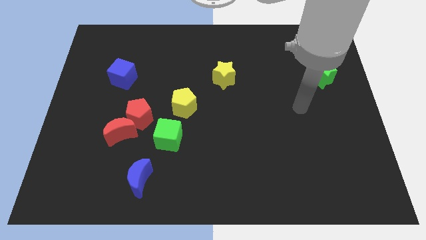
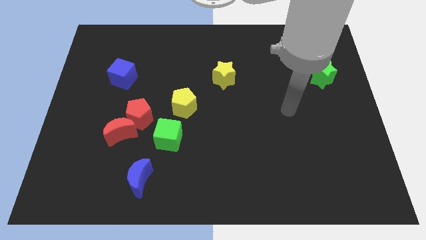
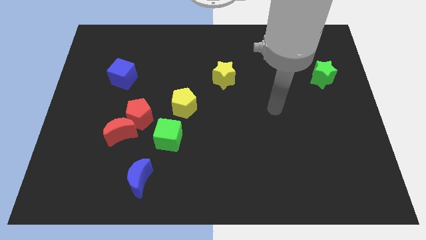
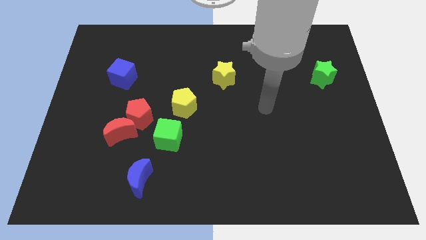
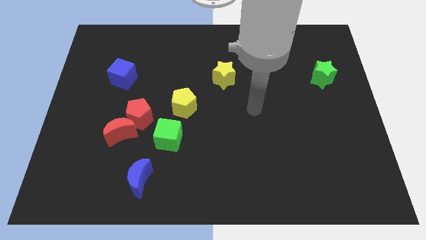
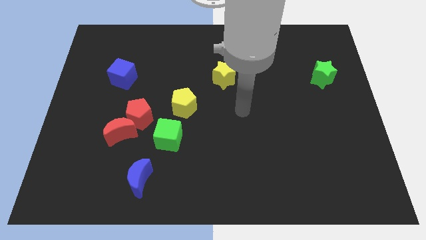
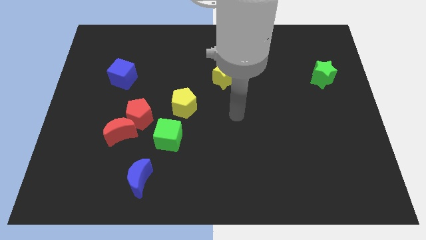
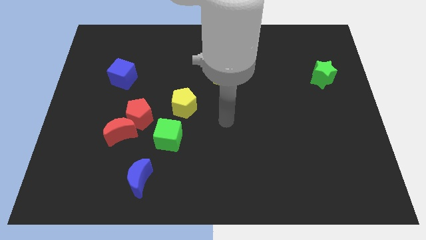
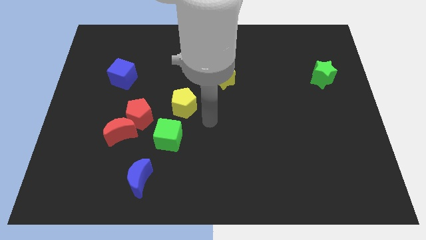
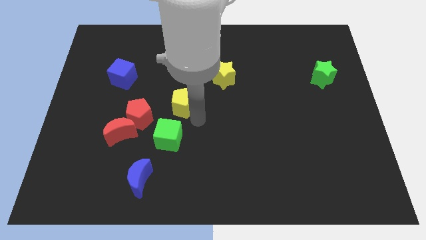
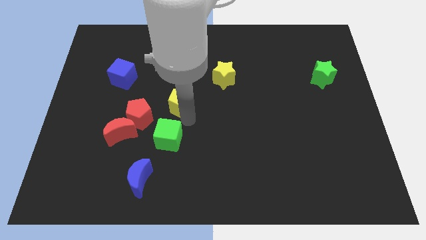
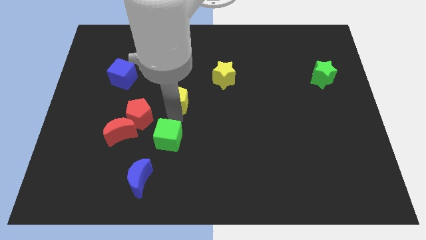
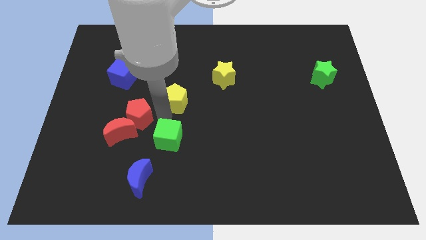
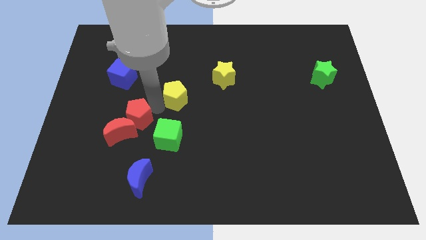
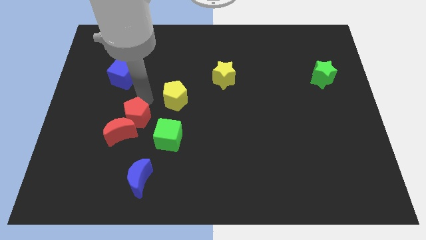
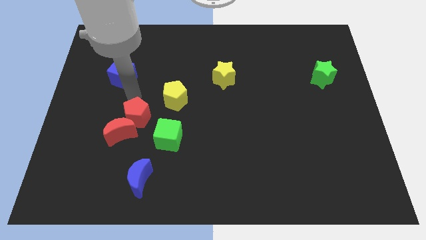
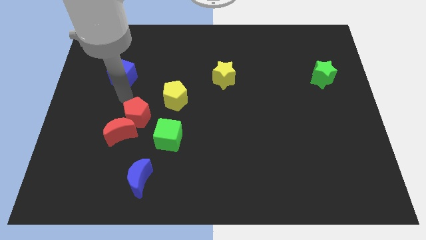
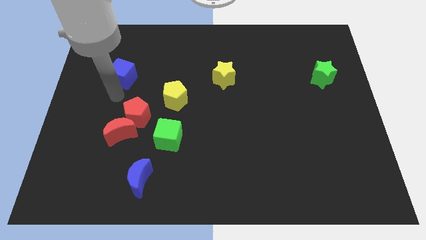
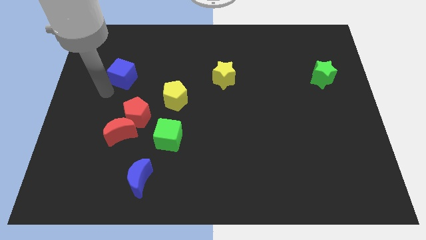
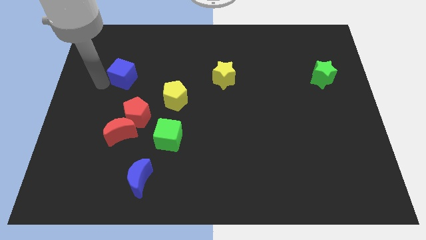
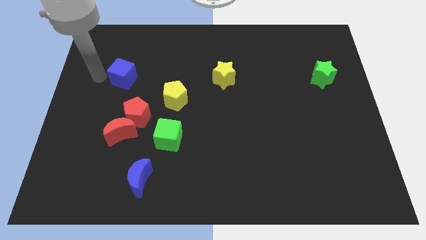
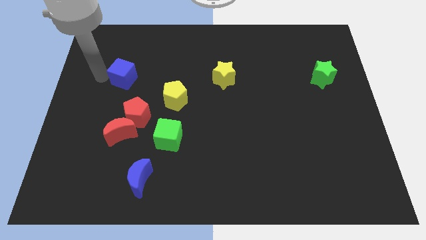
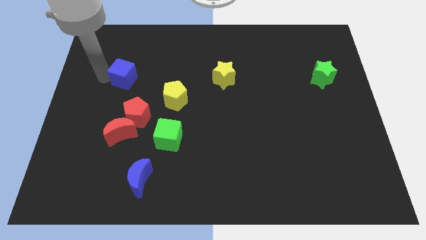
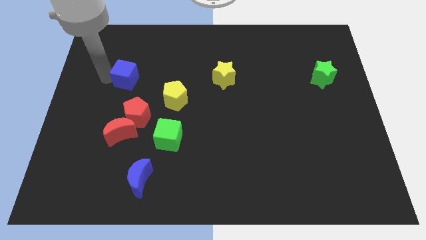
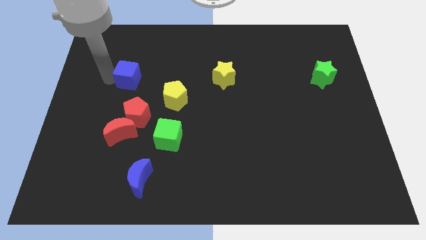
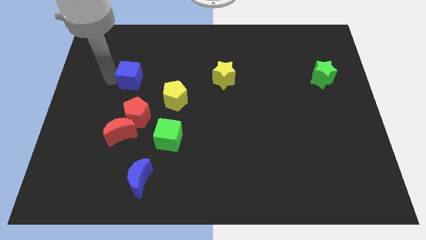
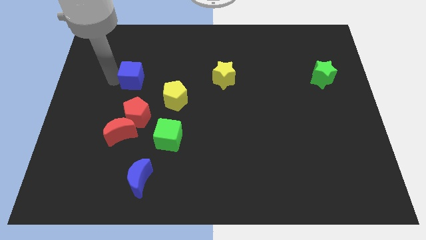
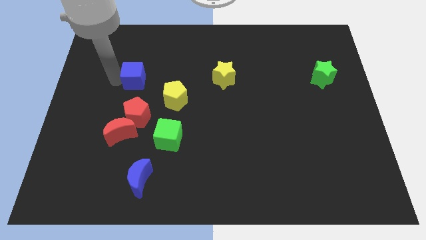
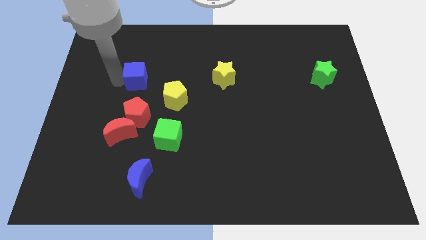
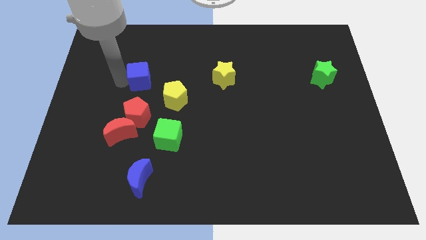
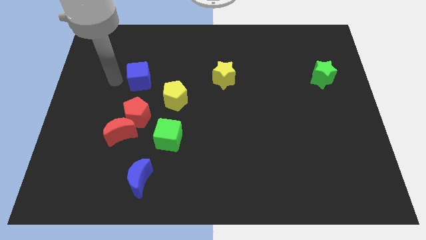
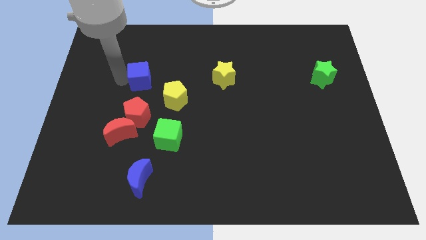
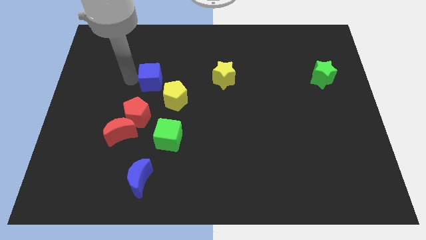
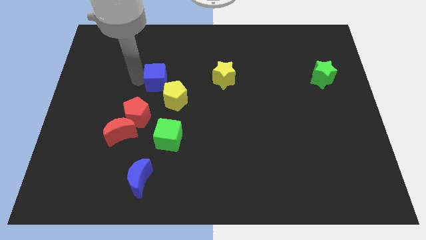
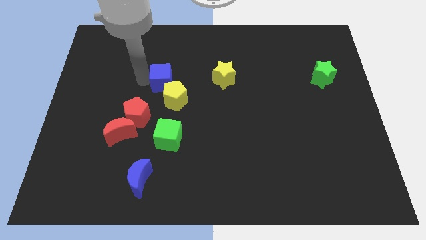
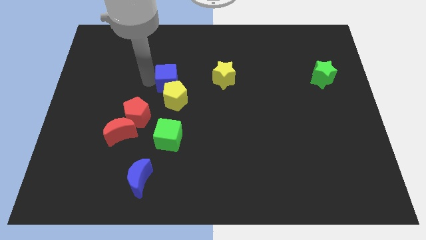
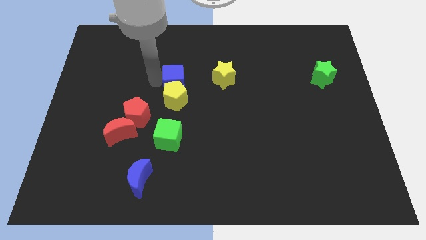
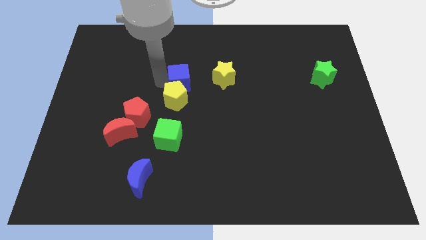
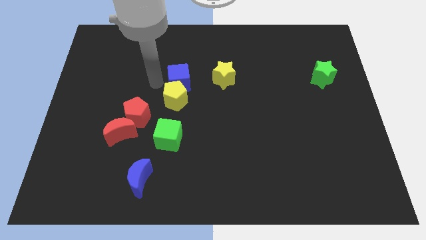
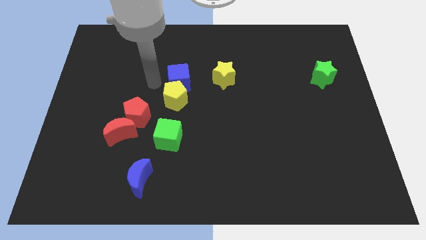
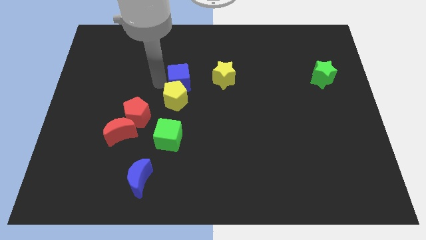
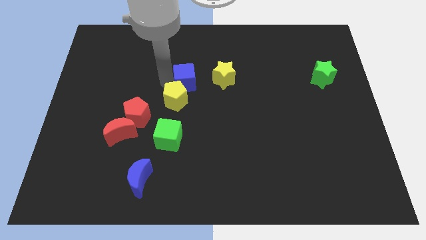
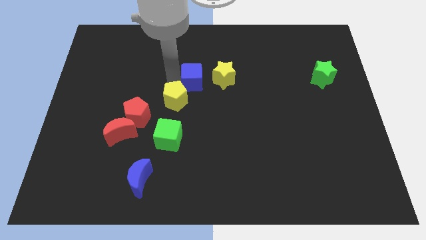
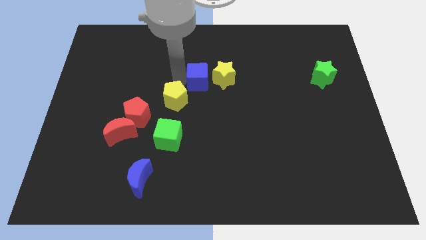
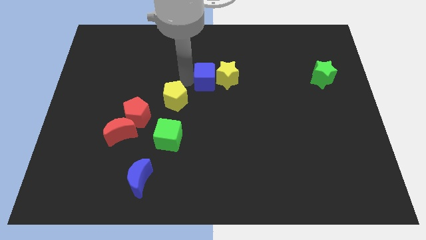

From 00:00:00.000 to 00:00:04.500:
push the blue cube to the yellow star

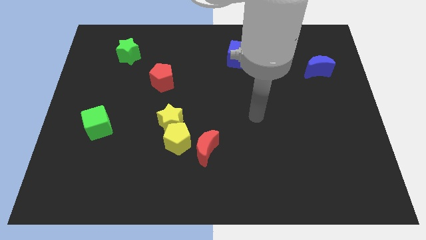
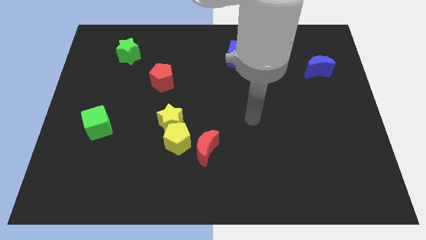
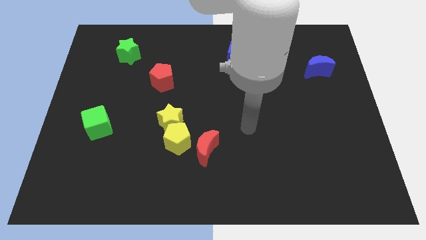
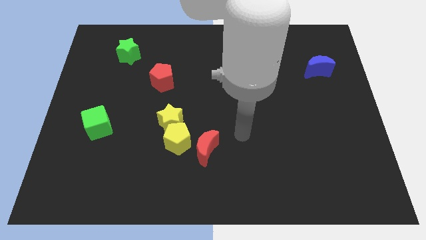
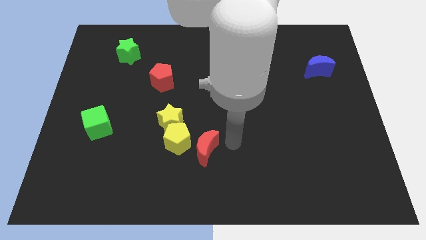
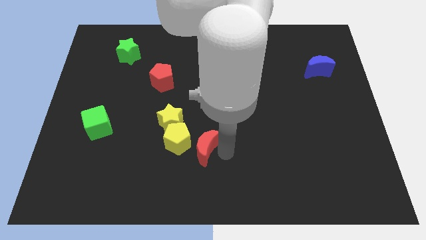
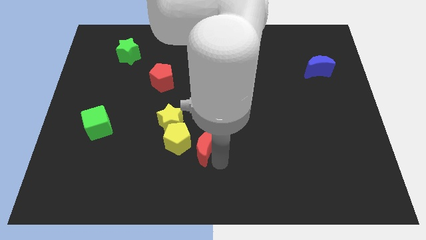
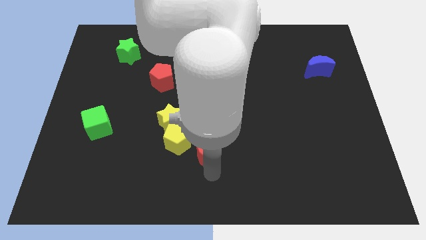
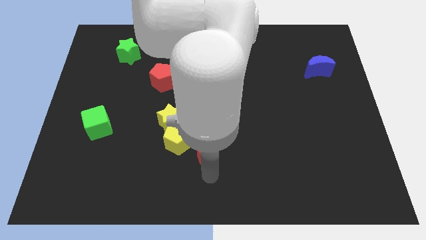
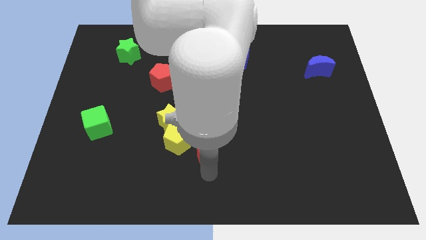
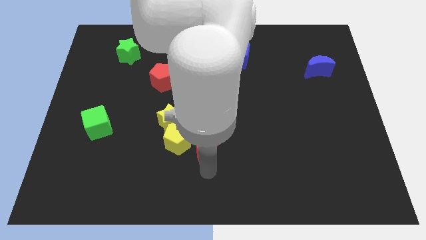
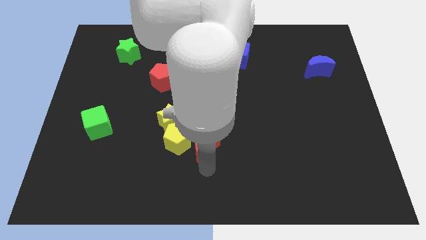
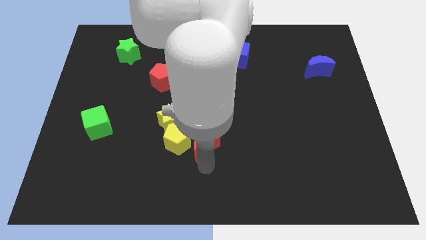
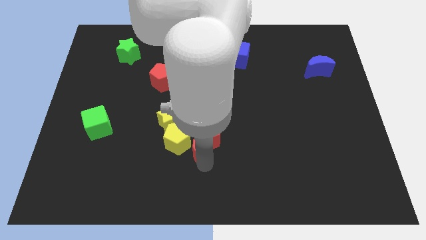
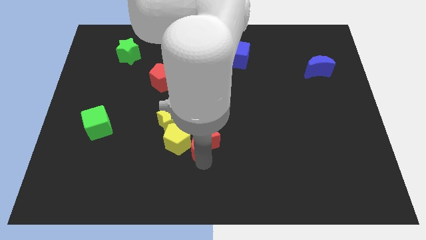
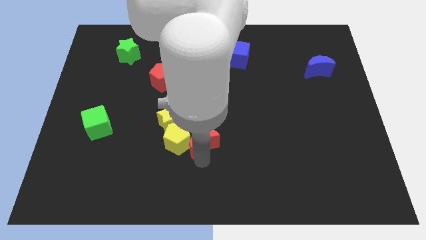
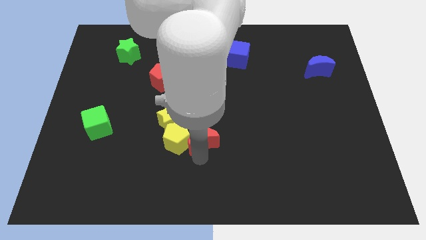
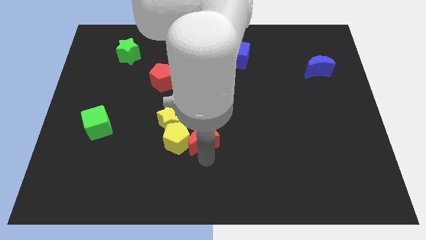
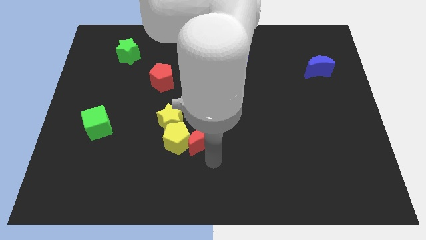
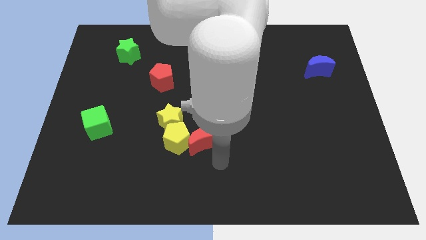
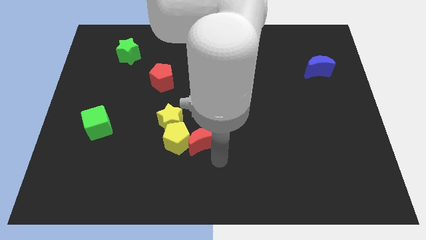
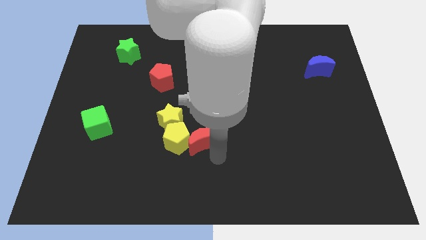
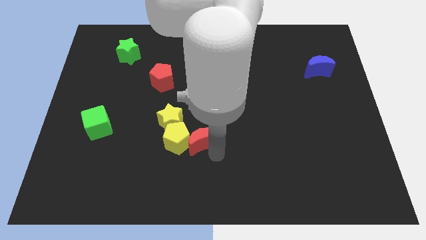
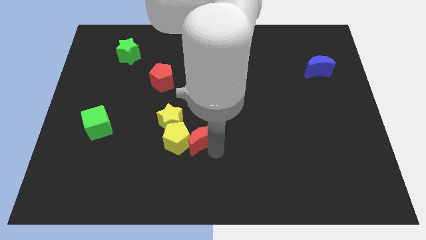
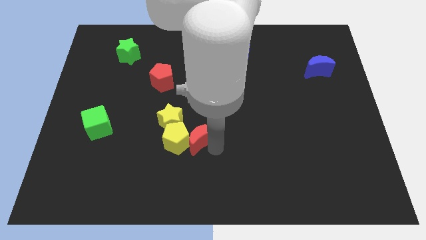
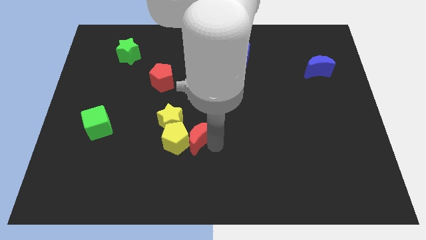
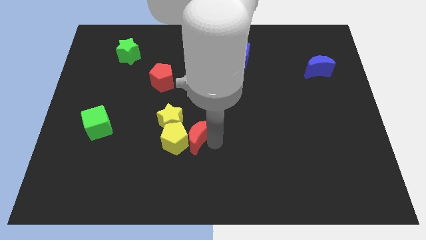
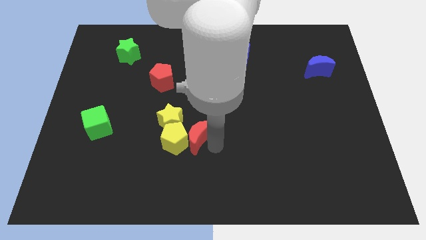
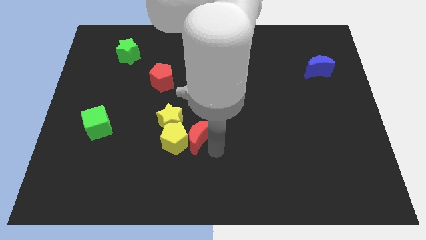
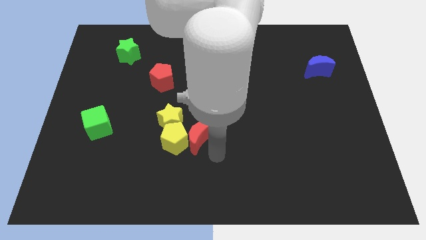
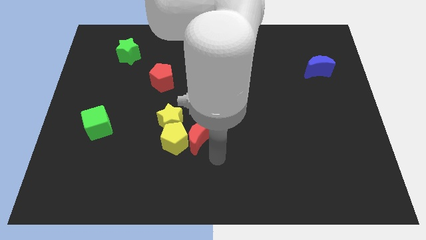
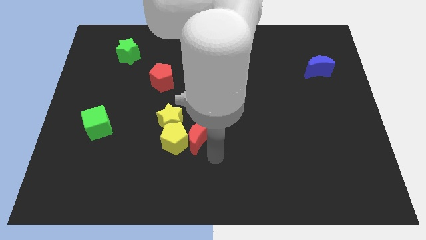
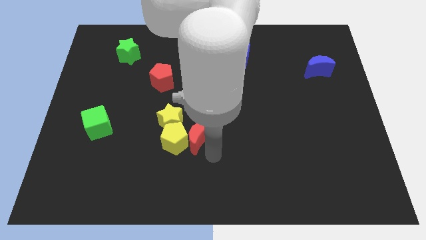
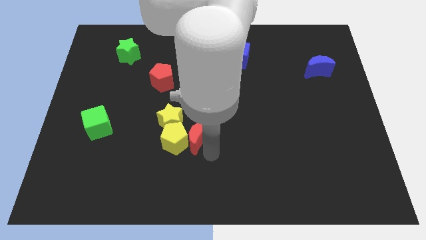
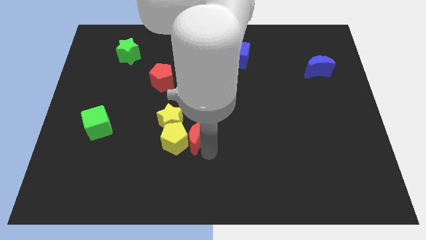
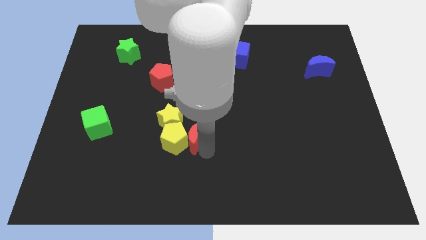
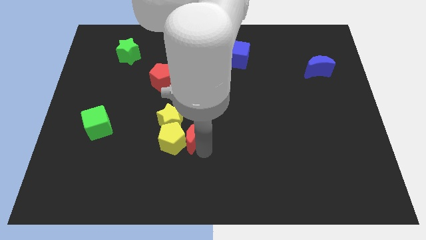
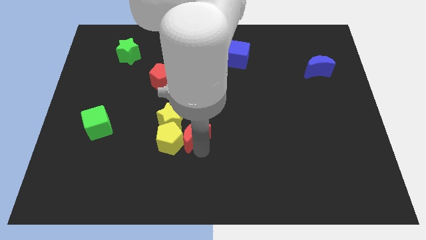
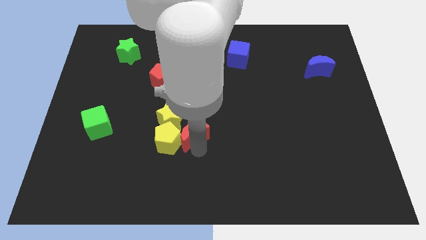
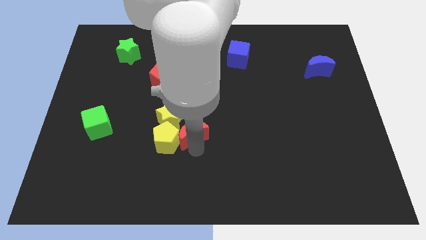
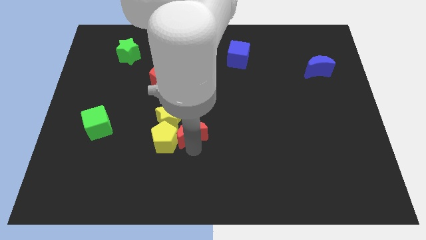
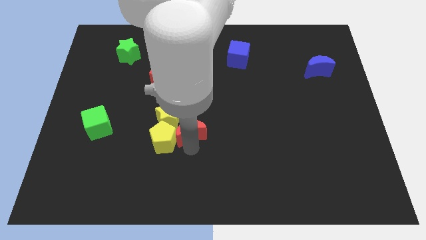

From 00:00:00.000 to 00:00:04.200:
slide the red moon to the yellow star
